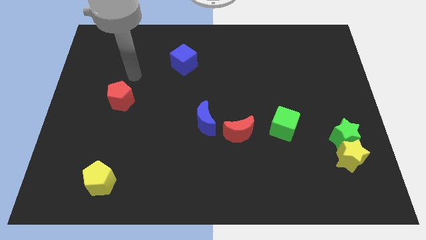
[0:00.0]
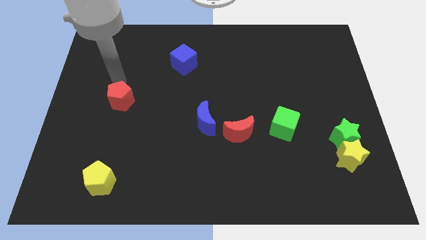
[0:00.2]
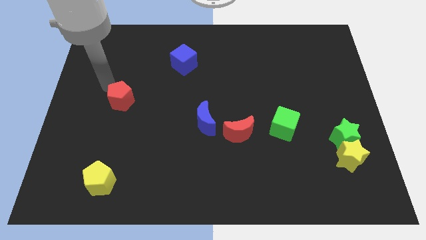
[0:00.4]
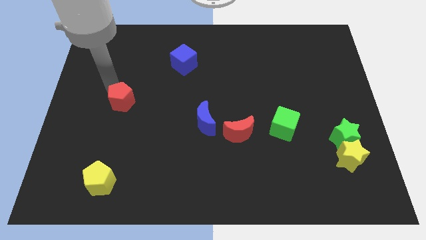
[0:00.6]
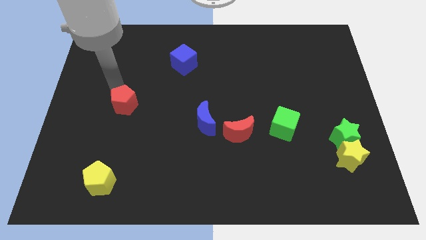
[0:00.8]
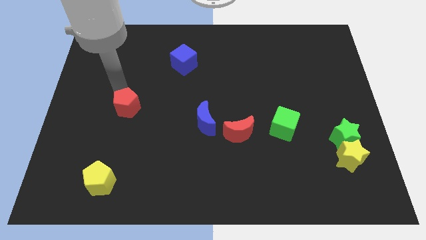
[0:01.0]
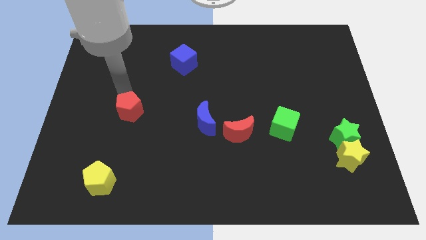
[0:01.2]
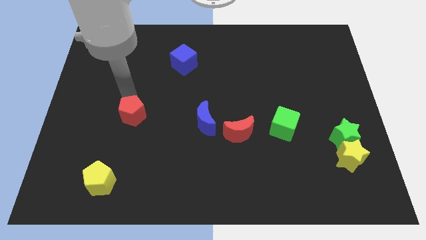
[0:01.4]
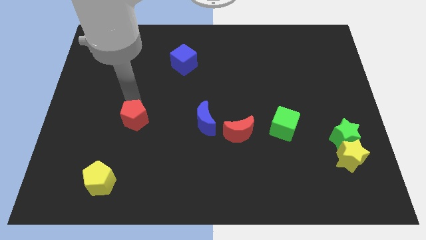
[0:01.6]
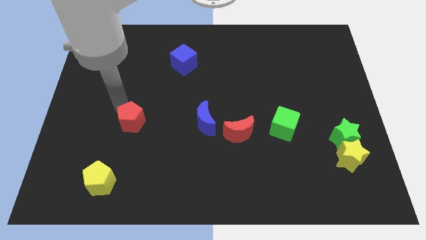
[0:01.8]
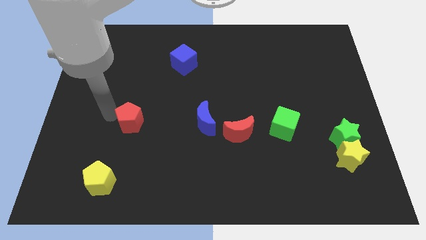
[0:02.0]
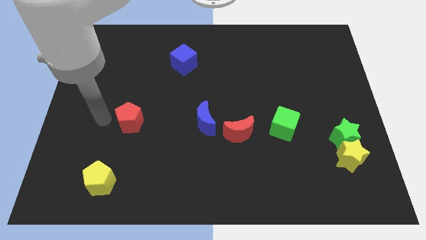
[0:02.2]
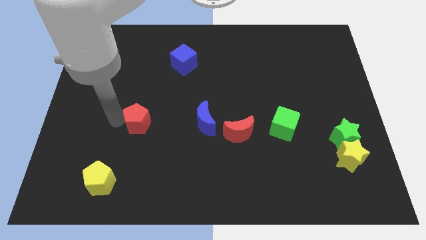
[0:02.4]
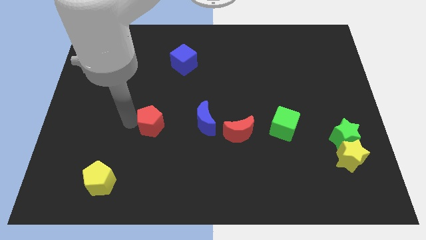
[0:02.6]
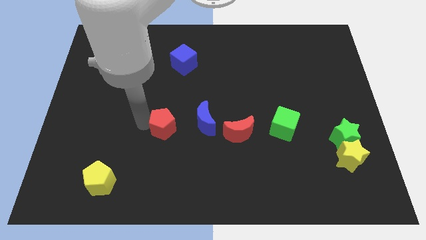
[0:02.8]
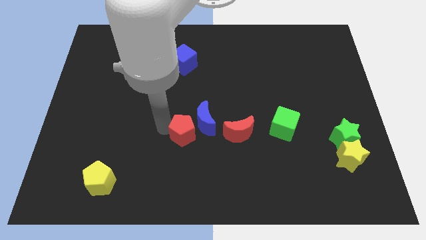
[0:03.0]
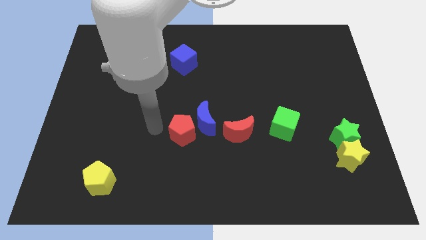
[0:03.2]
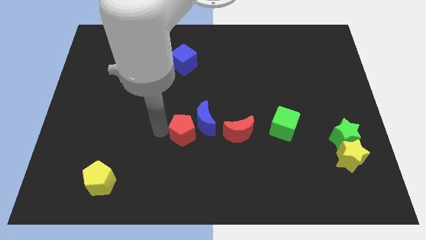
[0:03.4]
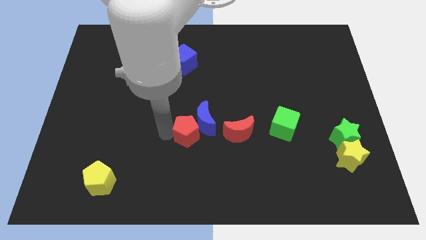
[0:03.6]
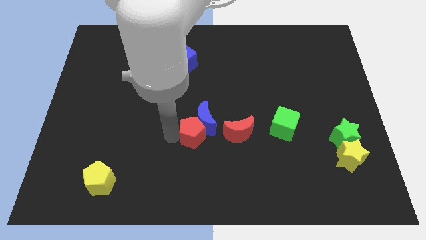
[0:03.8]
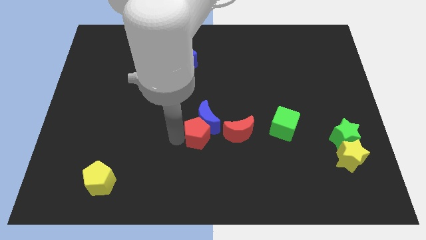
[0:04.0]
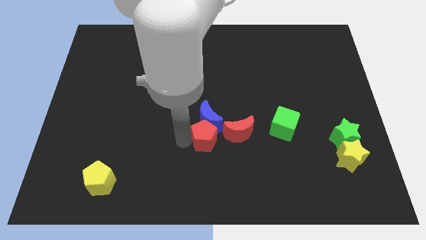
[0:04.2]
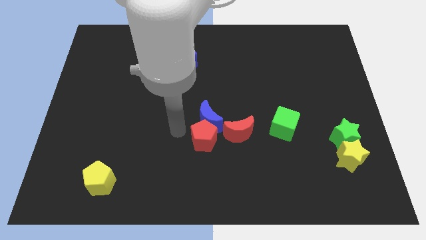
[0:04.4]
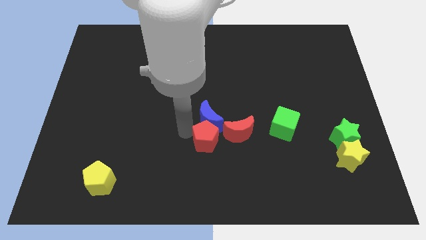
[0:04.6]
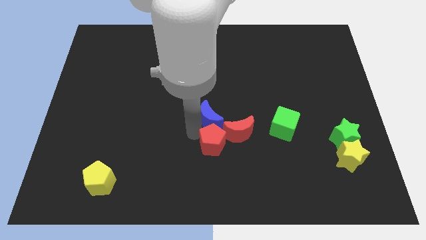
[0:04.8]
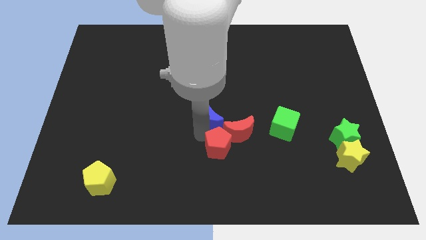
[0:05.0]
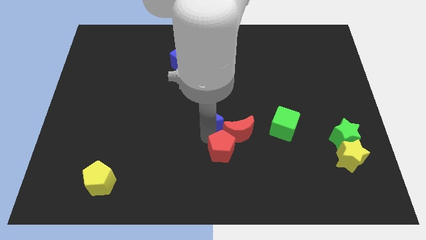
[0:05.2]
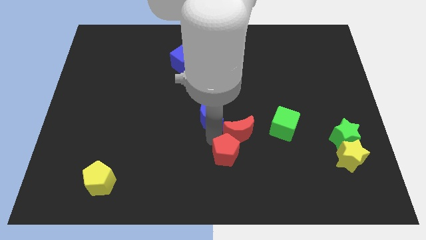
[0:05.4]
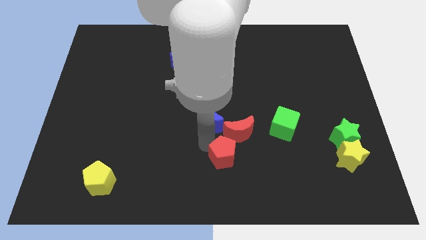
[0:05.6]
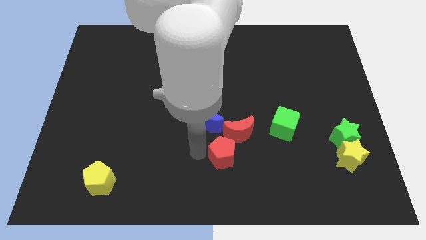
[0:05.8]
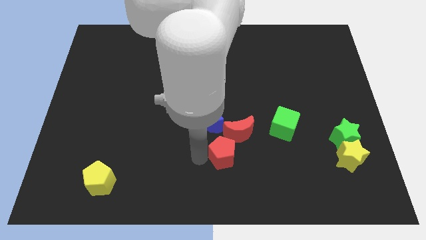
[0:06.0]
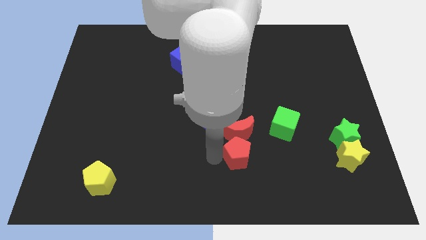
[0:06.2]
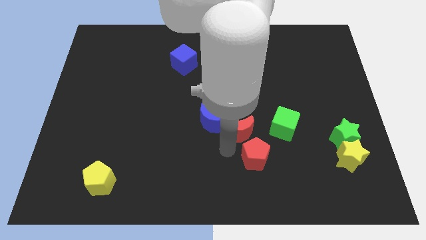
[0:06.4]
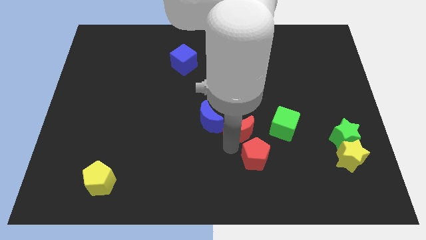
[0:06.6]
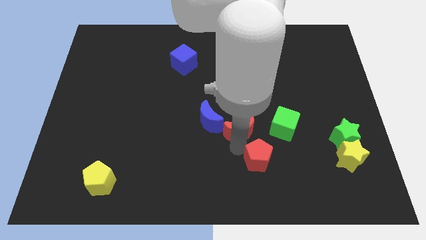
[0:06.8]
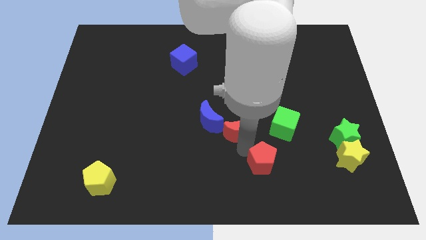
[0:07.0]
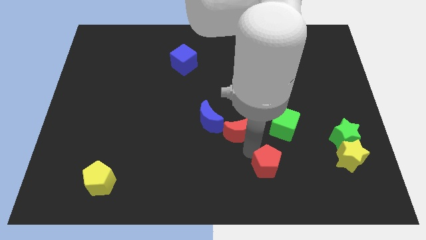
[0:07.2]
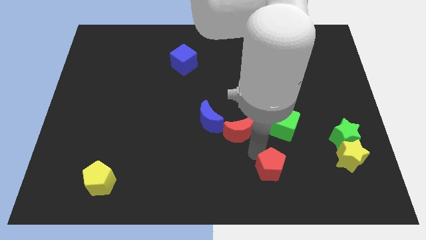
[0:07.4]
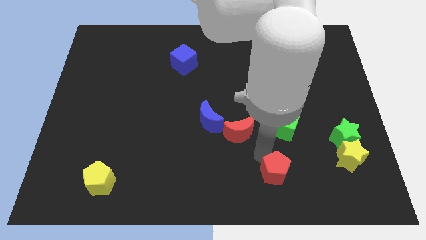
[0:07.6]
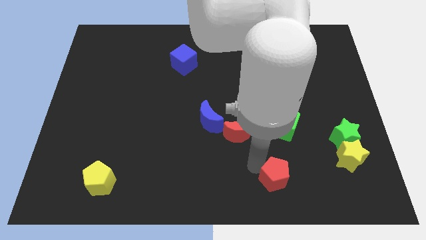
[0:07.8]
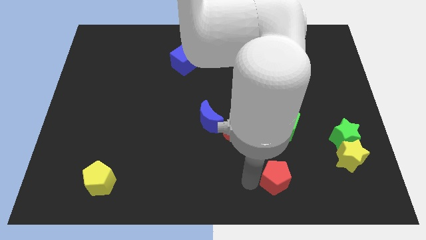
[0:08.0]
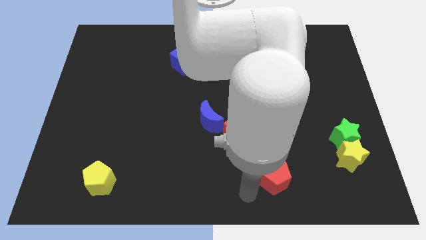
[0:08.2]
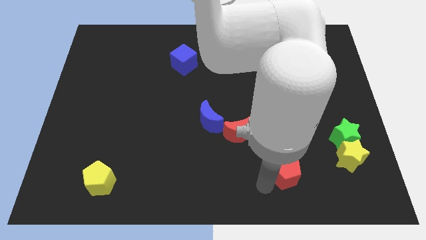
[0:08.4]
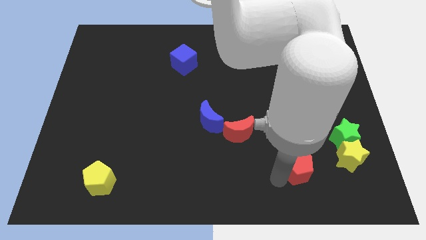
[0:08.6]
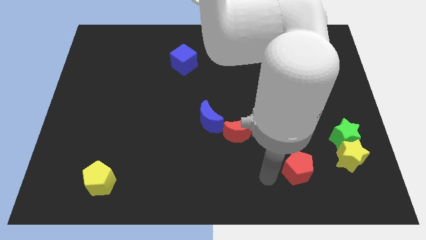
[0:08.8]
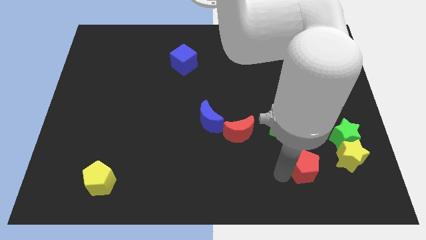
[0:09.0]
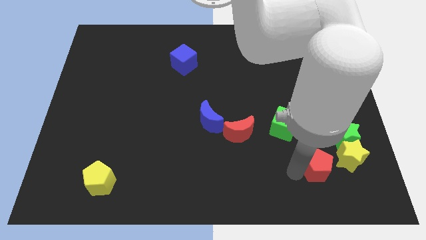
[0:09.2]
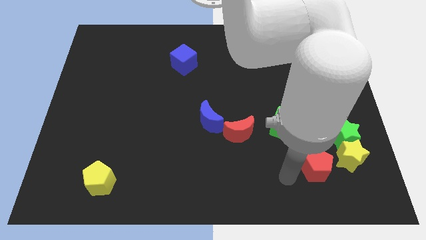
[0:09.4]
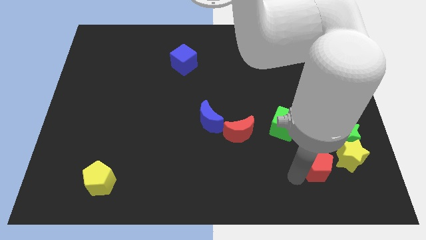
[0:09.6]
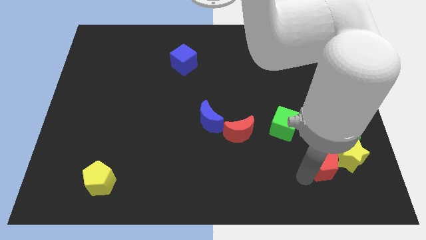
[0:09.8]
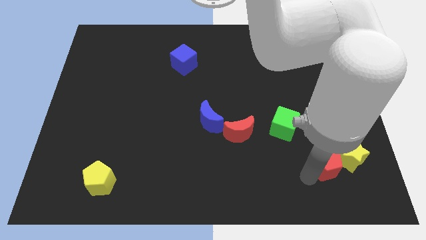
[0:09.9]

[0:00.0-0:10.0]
move the red pentagon to the yellow star

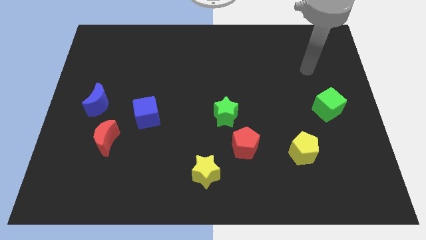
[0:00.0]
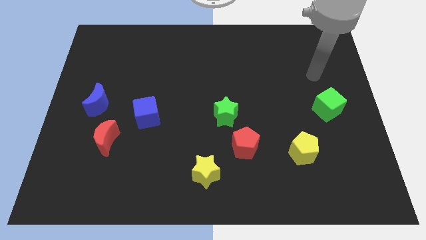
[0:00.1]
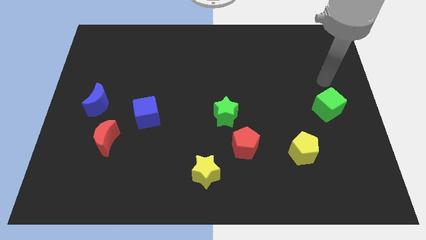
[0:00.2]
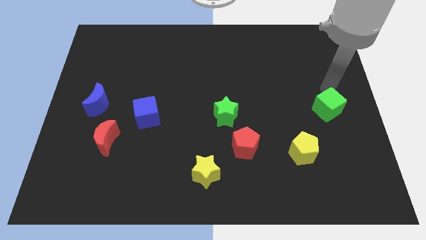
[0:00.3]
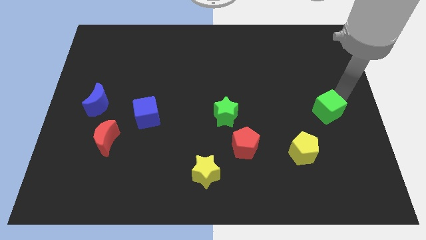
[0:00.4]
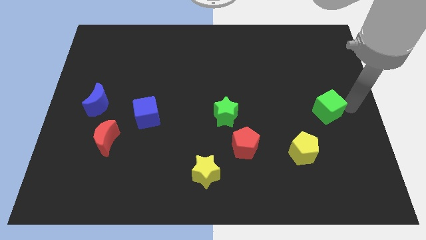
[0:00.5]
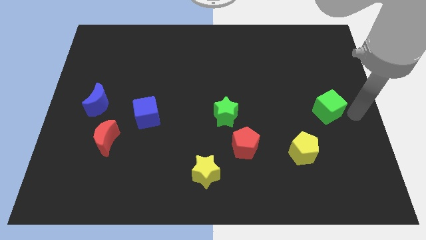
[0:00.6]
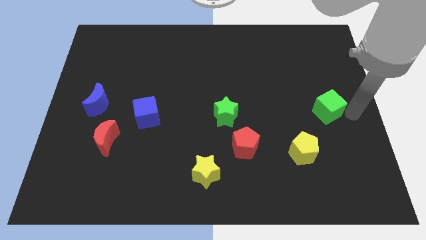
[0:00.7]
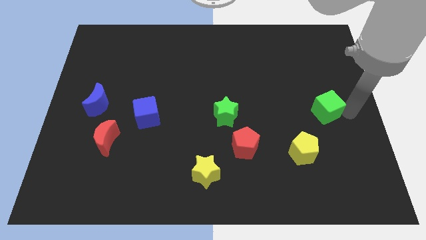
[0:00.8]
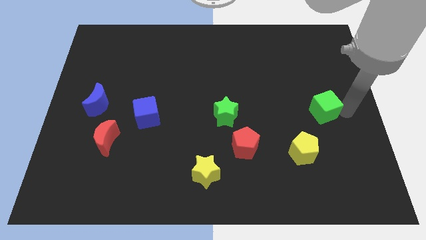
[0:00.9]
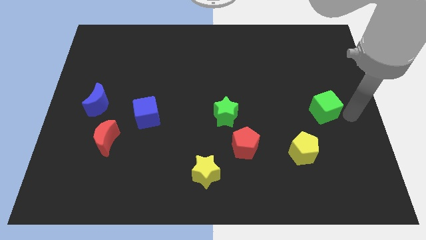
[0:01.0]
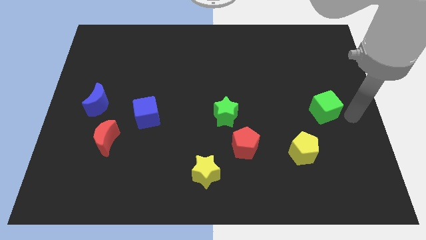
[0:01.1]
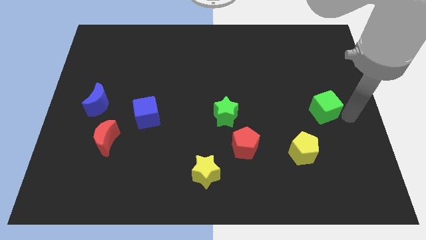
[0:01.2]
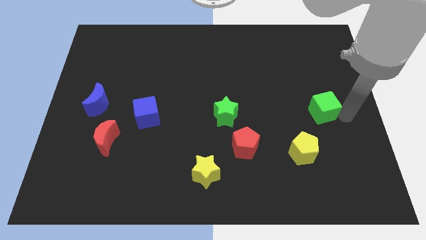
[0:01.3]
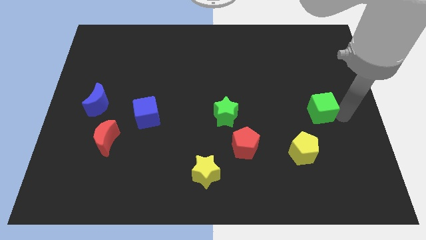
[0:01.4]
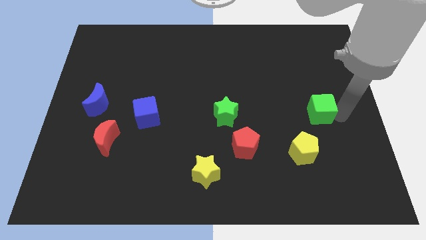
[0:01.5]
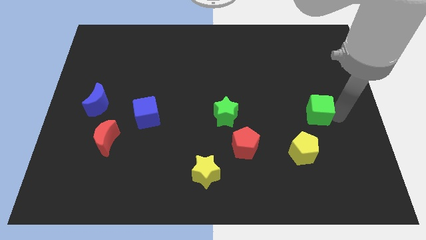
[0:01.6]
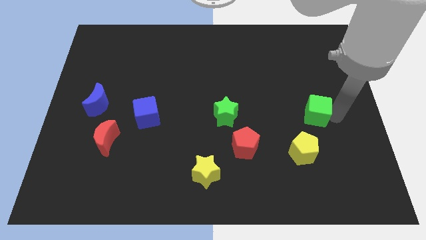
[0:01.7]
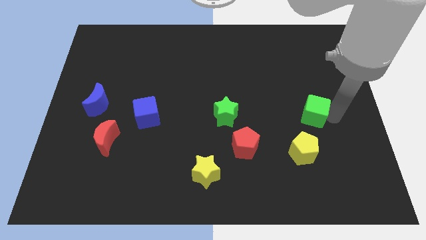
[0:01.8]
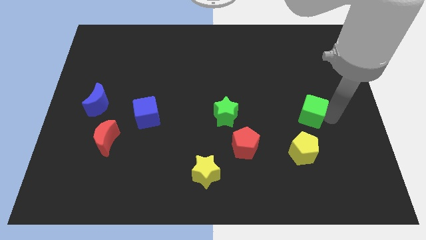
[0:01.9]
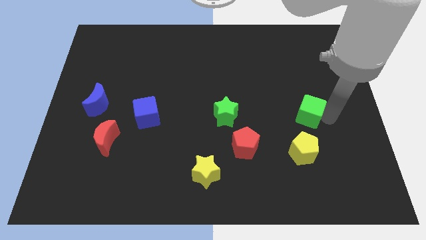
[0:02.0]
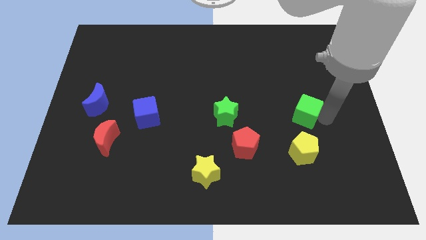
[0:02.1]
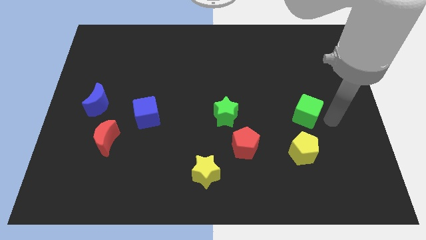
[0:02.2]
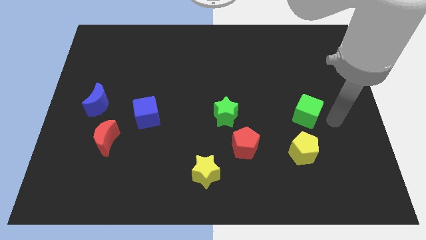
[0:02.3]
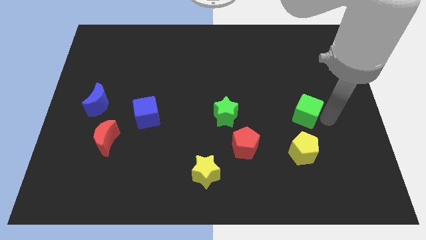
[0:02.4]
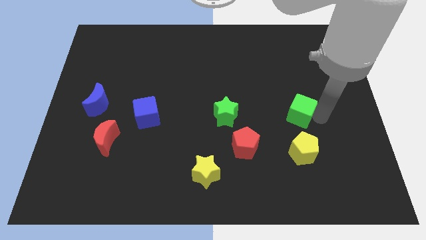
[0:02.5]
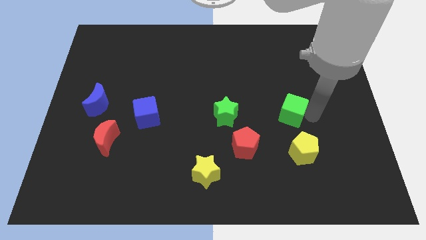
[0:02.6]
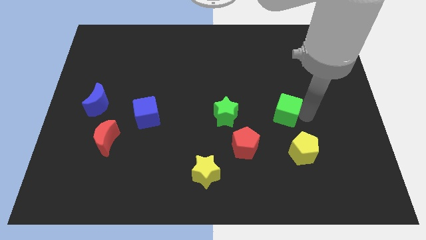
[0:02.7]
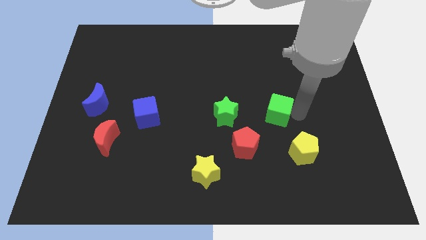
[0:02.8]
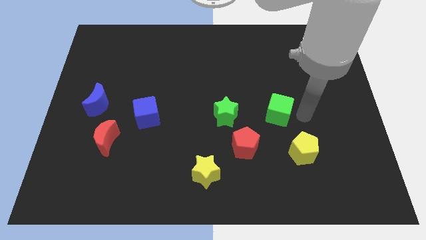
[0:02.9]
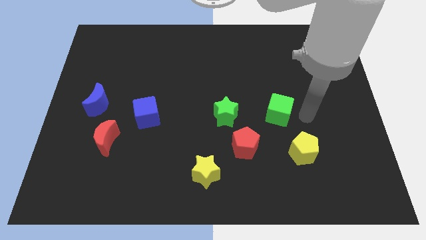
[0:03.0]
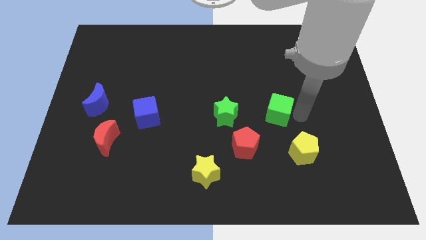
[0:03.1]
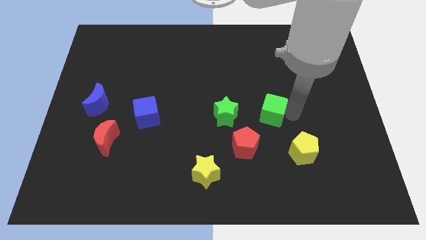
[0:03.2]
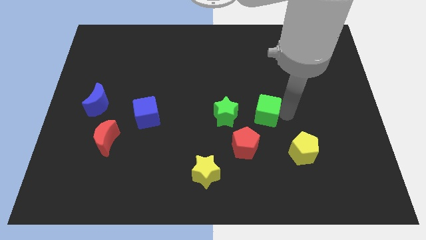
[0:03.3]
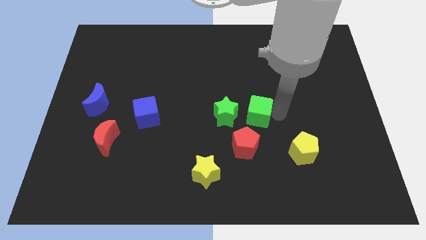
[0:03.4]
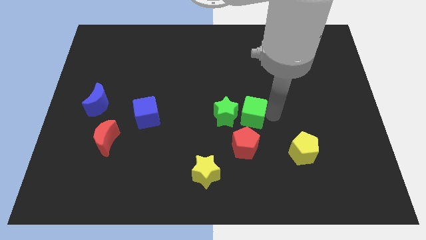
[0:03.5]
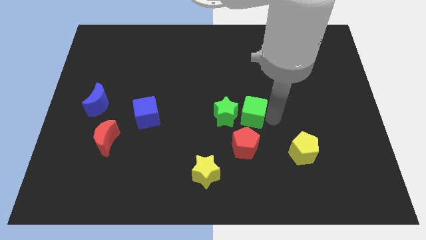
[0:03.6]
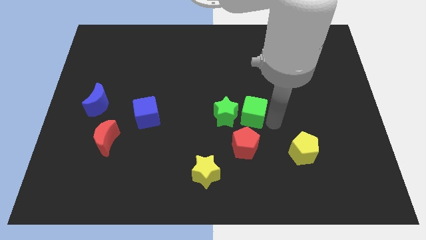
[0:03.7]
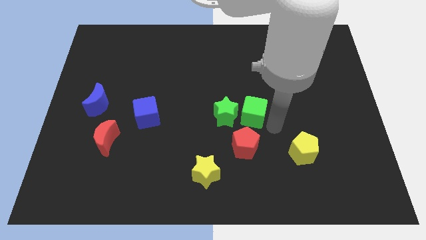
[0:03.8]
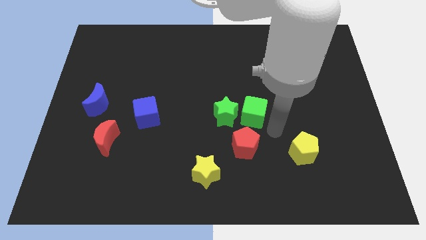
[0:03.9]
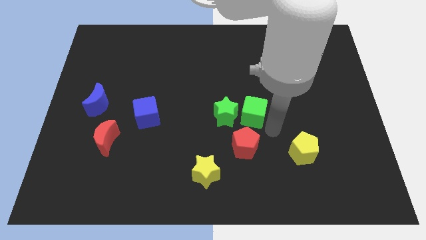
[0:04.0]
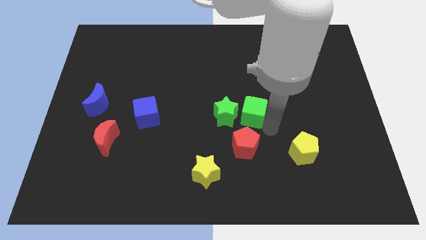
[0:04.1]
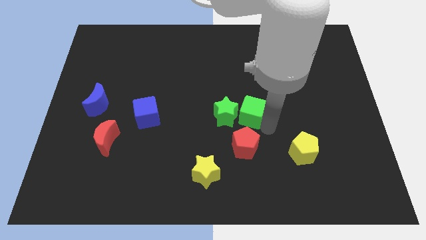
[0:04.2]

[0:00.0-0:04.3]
slide the green cube towards the green star
